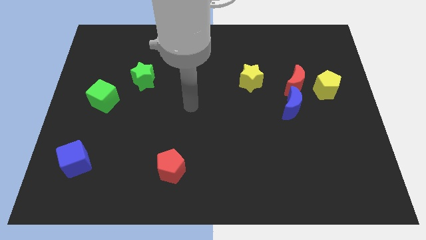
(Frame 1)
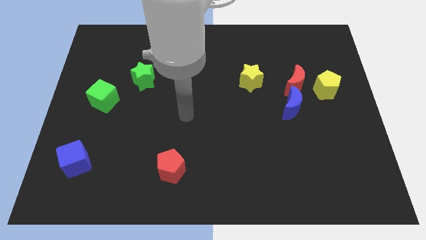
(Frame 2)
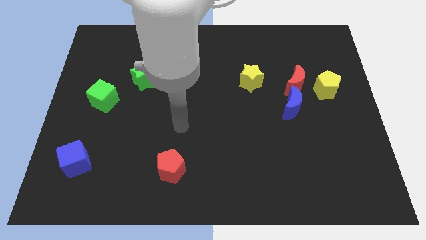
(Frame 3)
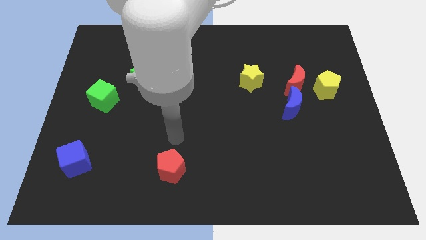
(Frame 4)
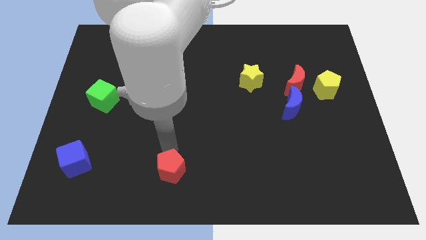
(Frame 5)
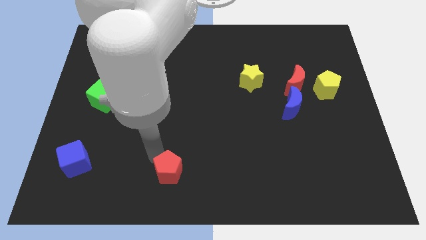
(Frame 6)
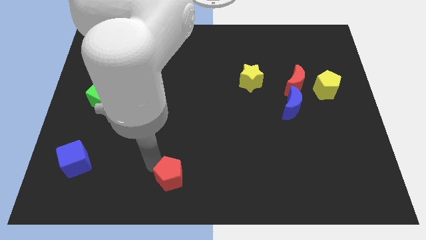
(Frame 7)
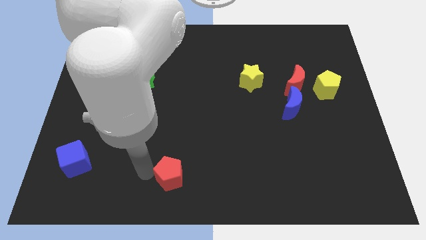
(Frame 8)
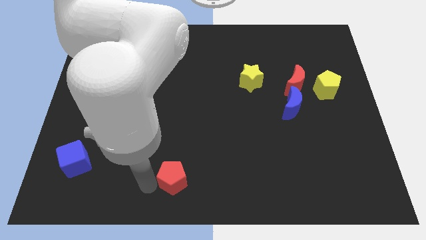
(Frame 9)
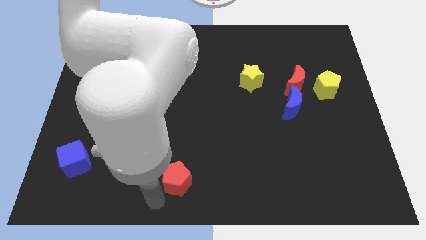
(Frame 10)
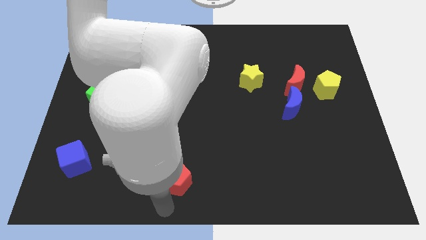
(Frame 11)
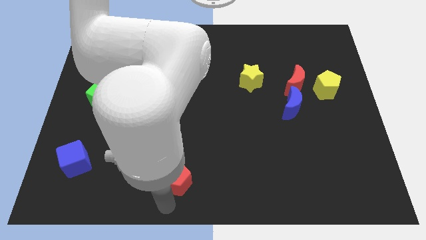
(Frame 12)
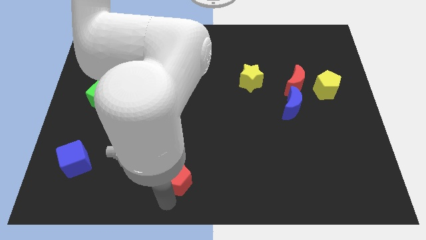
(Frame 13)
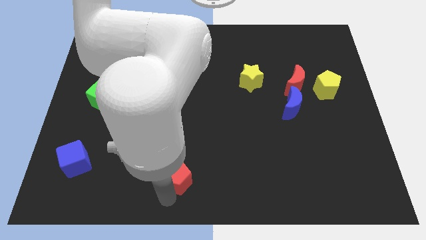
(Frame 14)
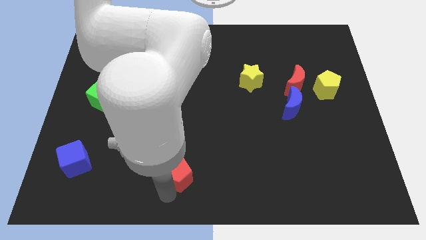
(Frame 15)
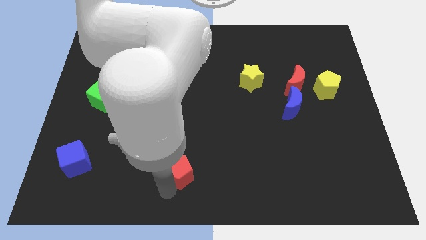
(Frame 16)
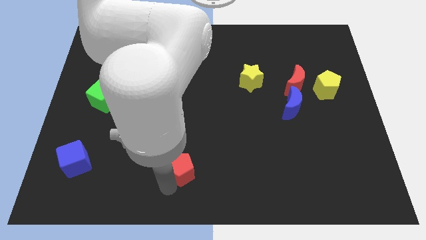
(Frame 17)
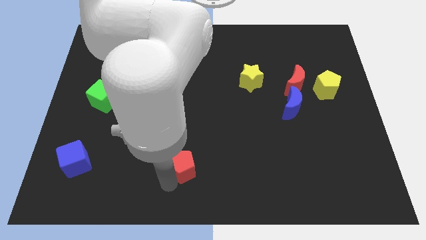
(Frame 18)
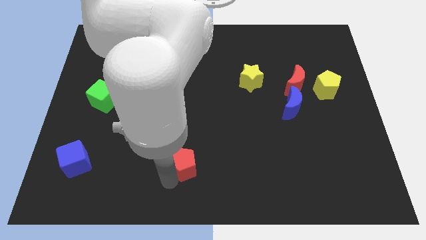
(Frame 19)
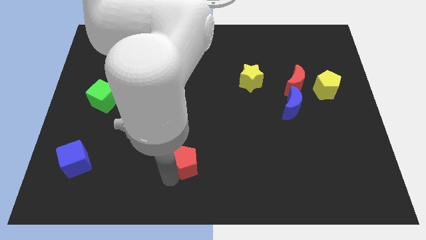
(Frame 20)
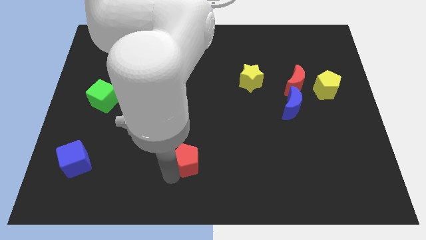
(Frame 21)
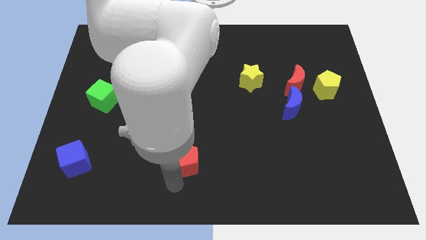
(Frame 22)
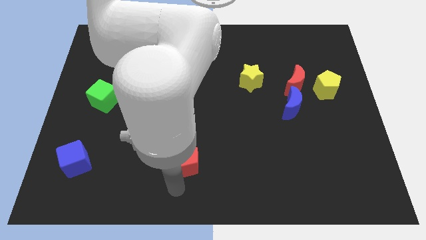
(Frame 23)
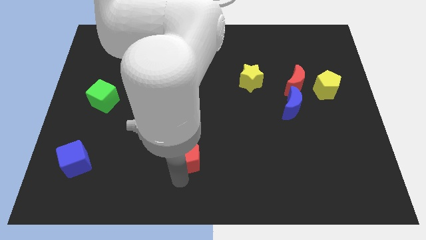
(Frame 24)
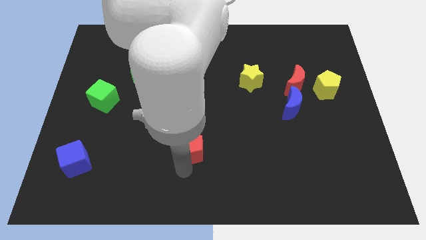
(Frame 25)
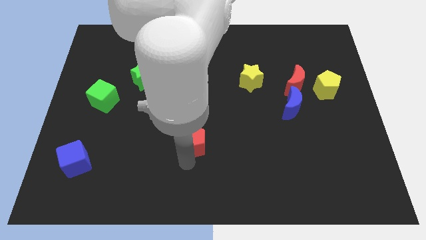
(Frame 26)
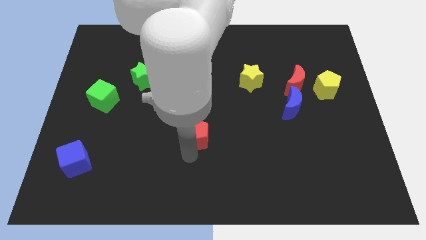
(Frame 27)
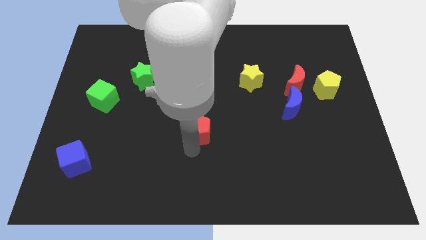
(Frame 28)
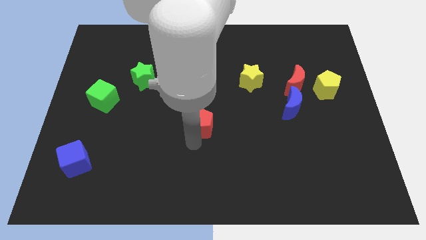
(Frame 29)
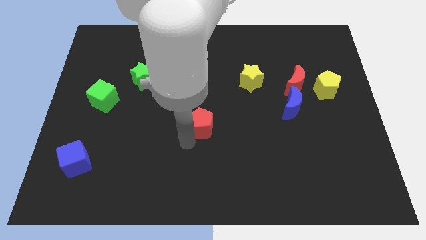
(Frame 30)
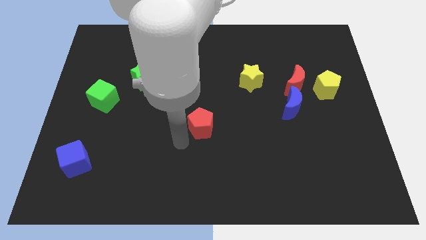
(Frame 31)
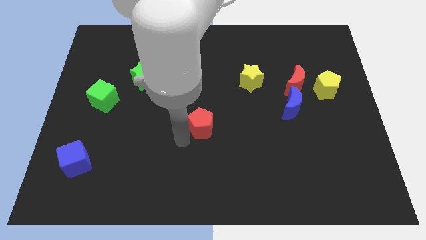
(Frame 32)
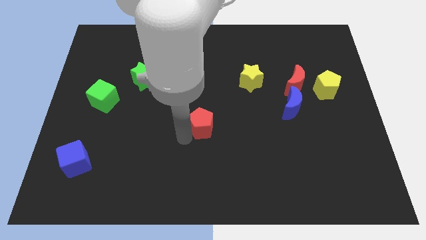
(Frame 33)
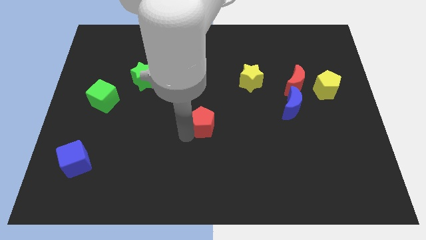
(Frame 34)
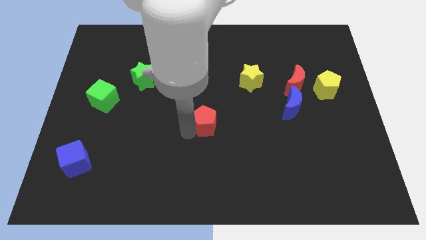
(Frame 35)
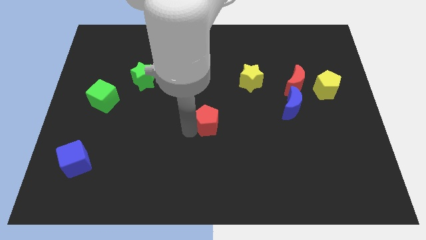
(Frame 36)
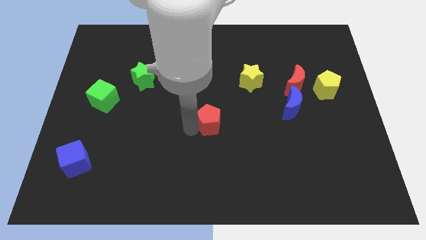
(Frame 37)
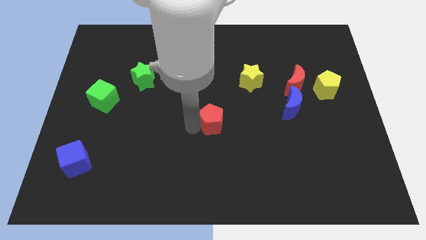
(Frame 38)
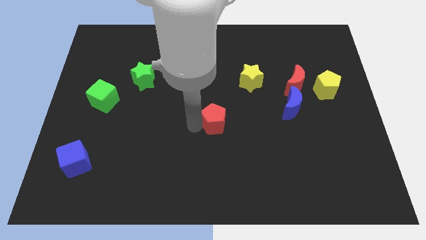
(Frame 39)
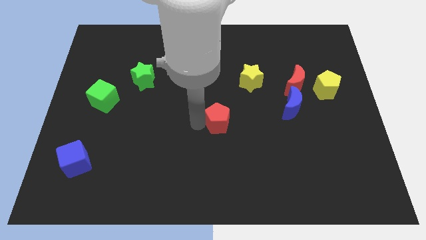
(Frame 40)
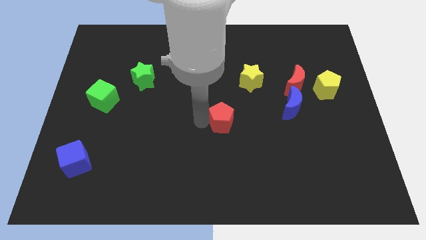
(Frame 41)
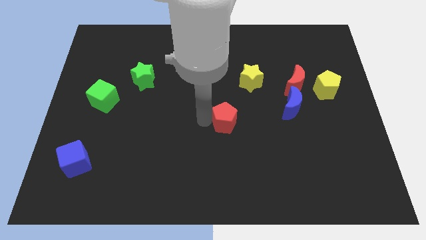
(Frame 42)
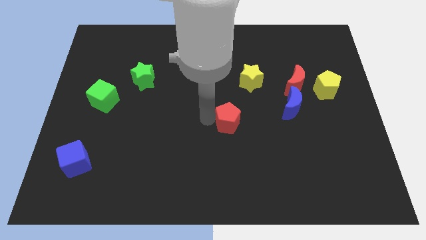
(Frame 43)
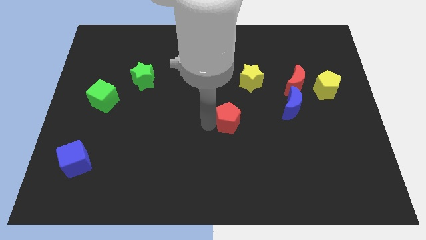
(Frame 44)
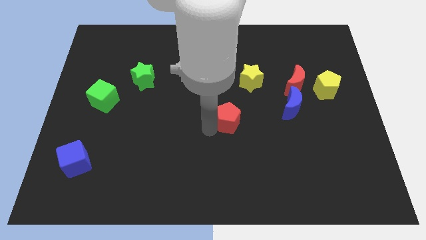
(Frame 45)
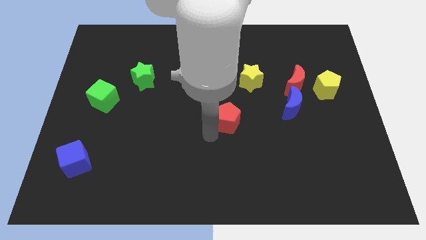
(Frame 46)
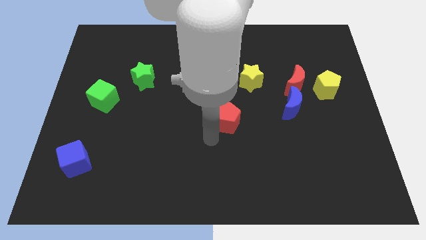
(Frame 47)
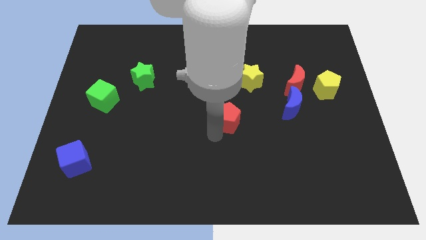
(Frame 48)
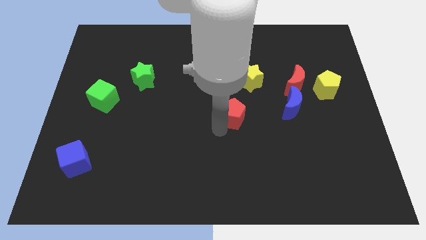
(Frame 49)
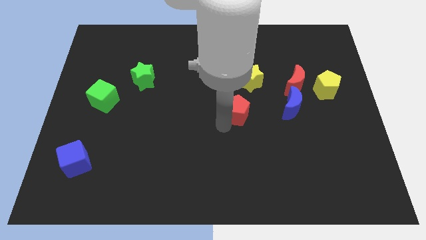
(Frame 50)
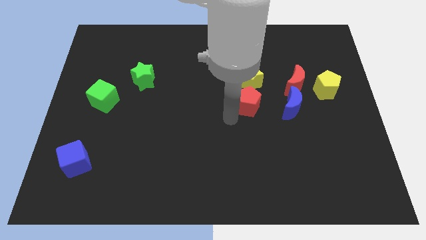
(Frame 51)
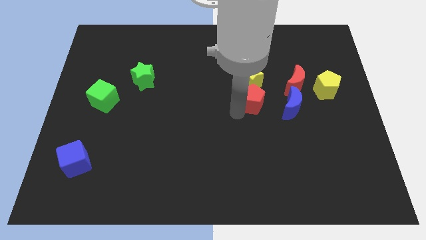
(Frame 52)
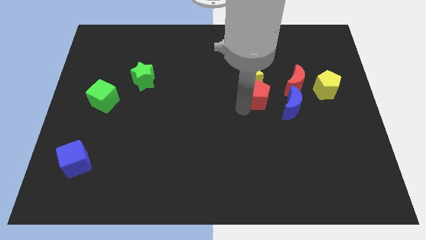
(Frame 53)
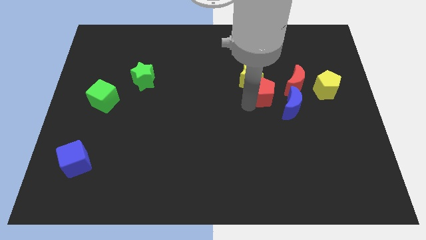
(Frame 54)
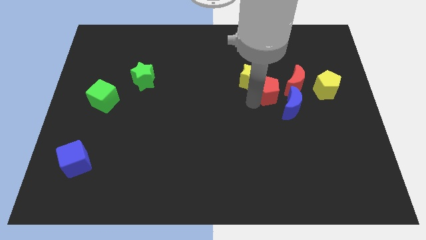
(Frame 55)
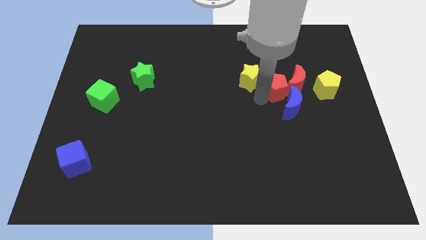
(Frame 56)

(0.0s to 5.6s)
move the red pentagon to the top of the blue moon

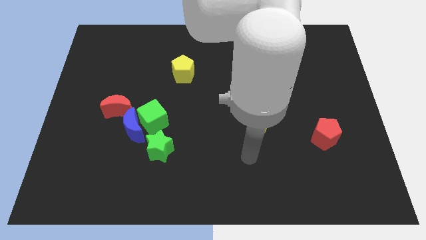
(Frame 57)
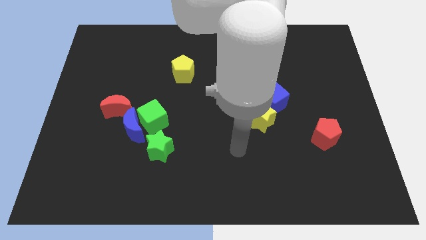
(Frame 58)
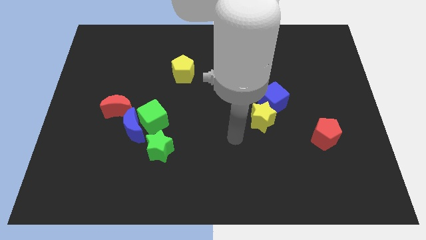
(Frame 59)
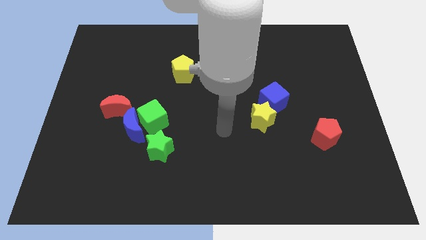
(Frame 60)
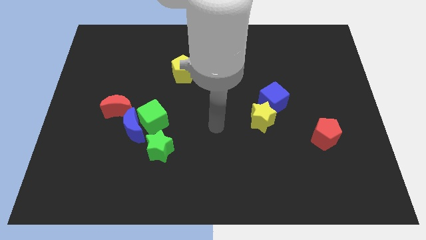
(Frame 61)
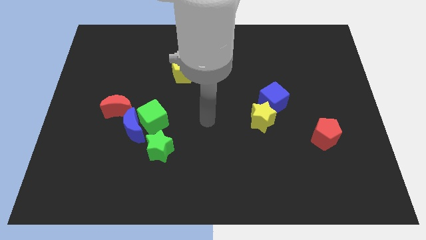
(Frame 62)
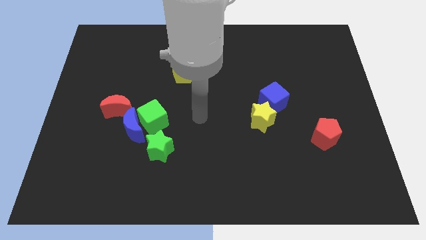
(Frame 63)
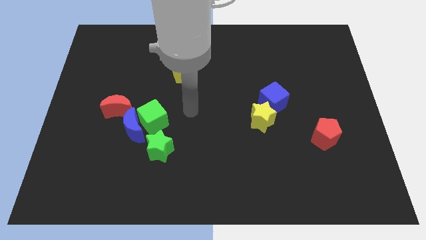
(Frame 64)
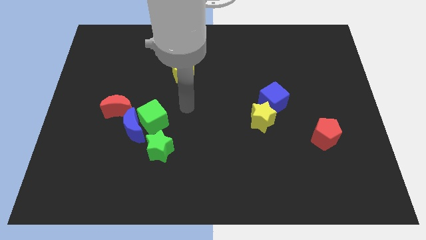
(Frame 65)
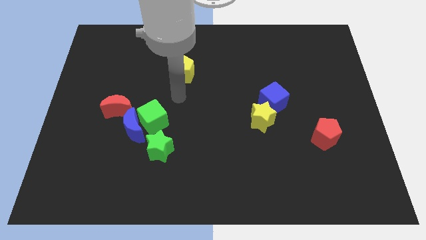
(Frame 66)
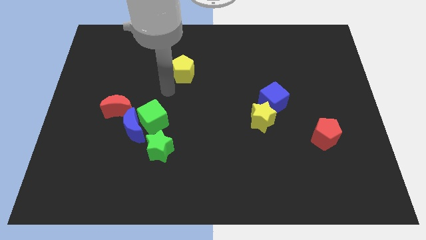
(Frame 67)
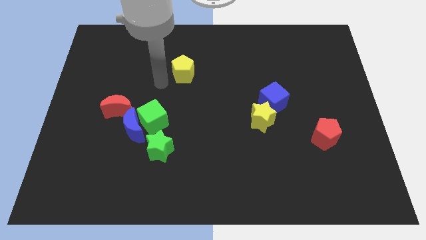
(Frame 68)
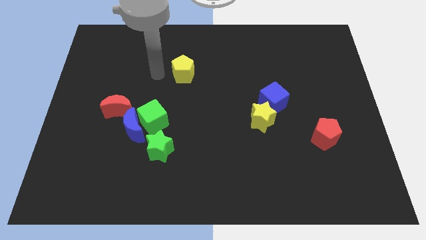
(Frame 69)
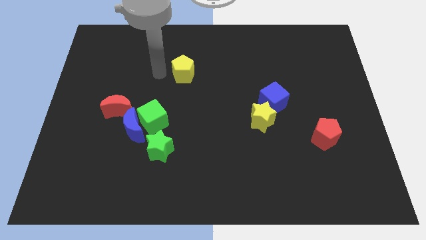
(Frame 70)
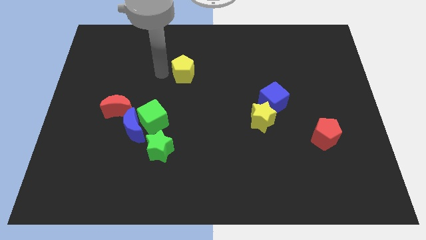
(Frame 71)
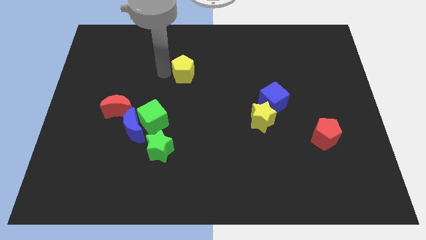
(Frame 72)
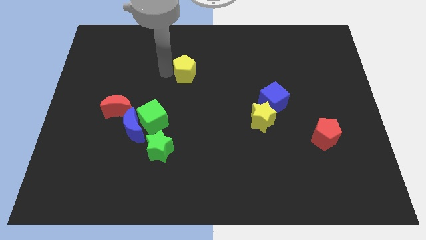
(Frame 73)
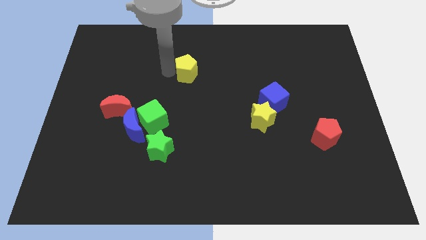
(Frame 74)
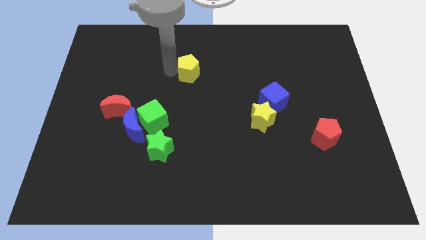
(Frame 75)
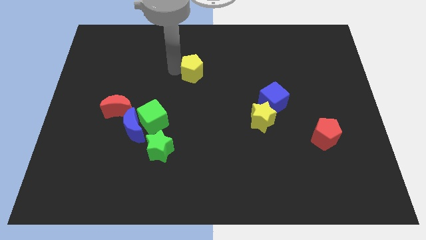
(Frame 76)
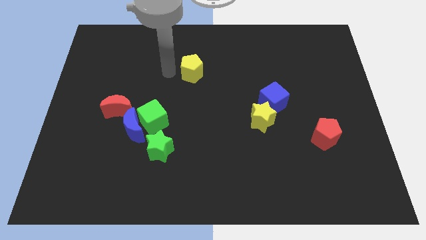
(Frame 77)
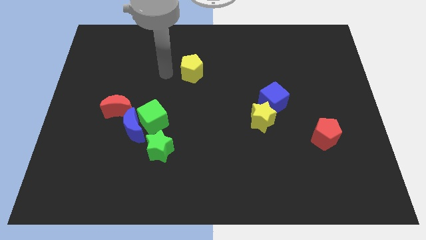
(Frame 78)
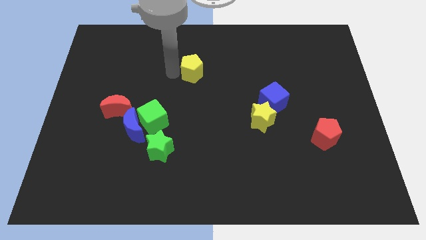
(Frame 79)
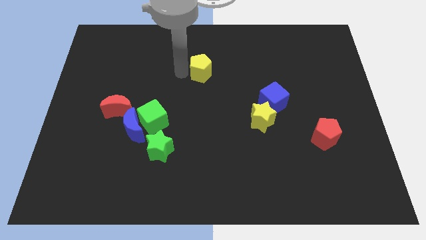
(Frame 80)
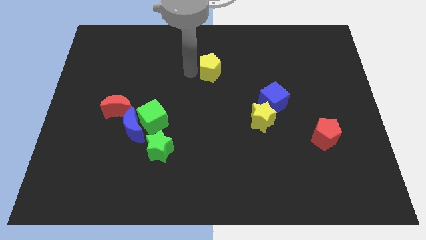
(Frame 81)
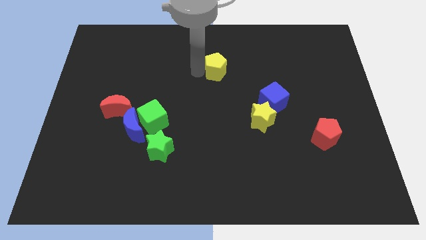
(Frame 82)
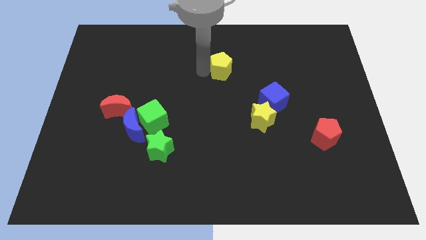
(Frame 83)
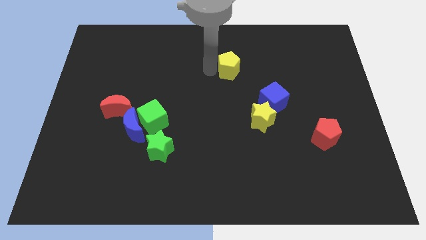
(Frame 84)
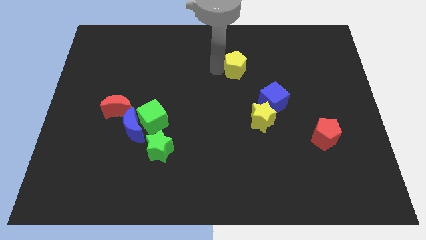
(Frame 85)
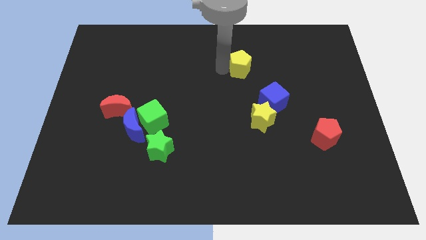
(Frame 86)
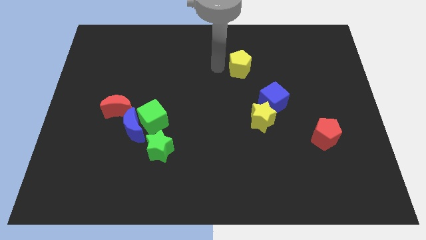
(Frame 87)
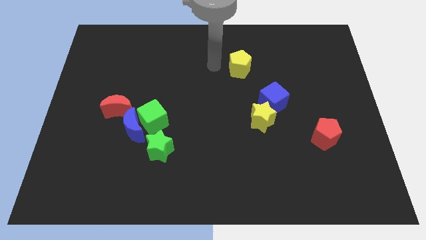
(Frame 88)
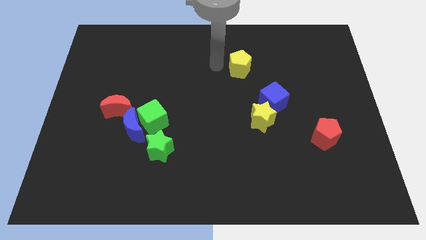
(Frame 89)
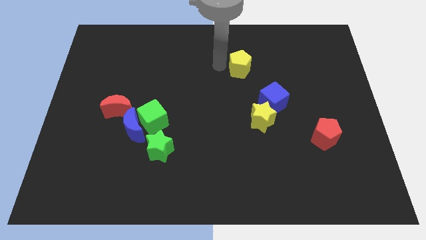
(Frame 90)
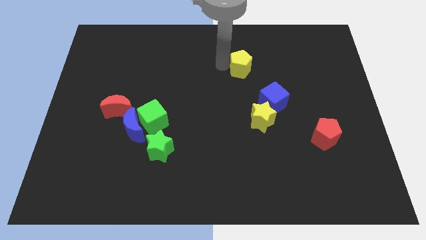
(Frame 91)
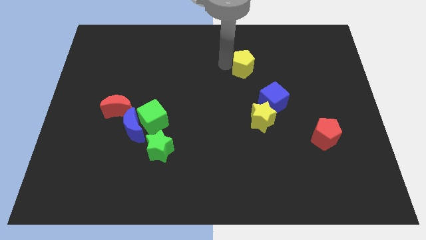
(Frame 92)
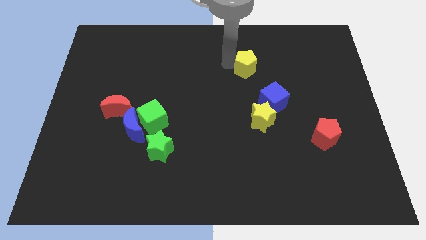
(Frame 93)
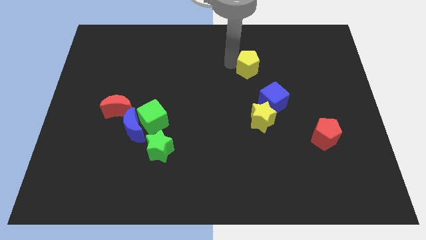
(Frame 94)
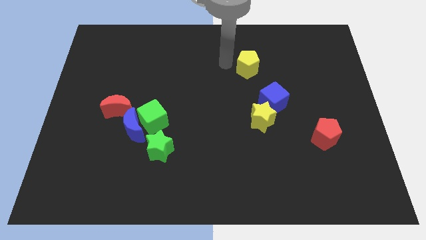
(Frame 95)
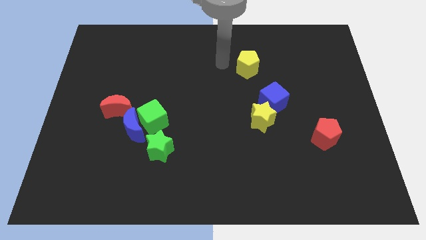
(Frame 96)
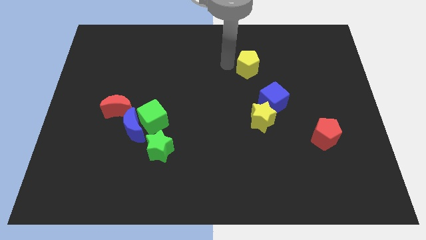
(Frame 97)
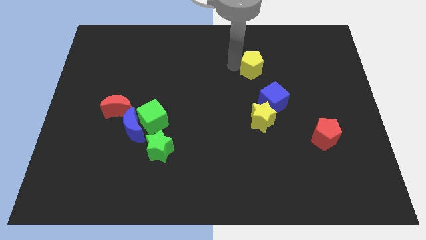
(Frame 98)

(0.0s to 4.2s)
move the yellow pentagon to the top of the blue cube
